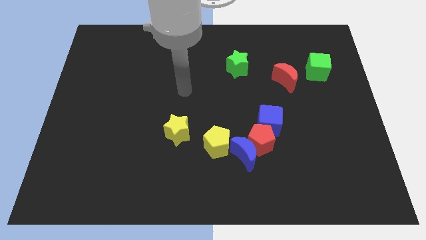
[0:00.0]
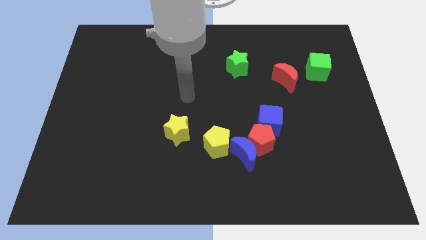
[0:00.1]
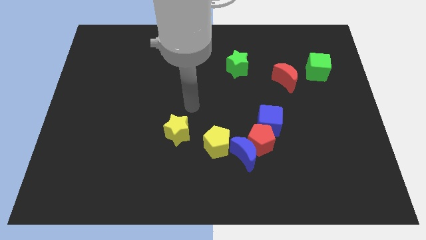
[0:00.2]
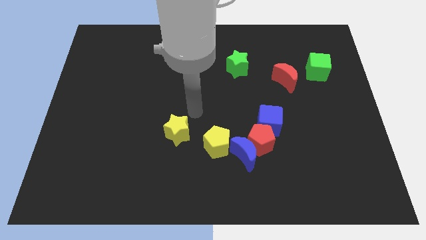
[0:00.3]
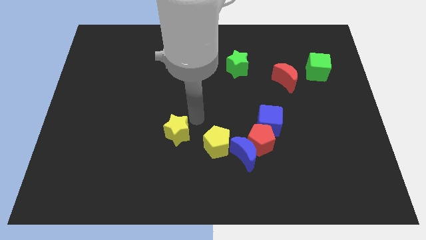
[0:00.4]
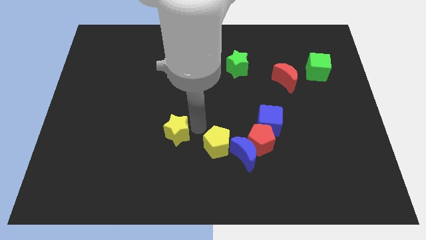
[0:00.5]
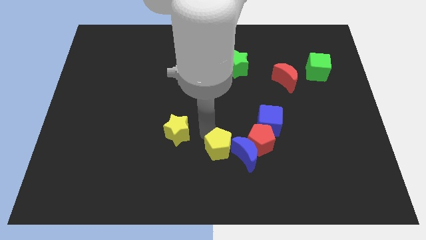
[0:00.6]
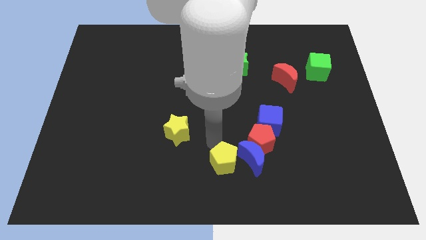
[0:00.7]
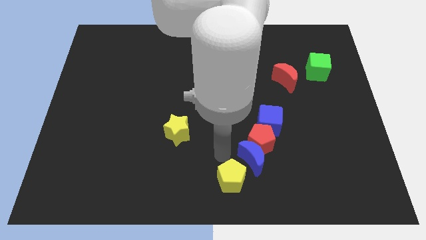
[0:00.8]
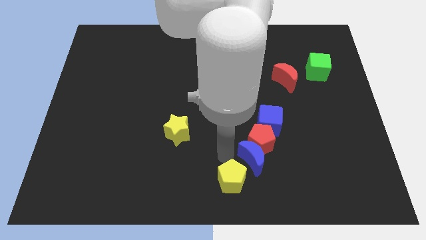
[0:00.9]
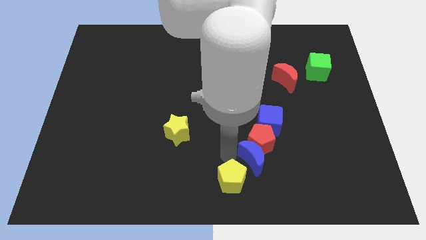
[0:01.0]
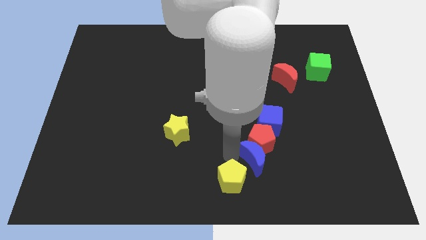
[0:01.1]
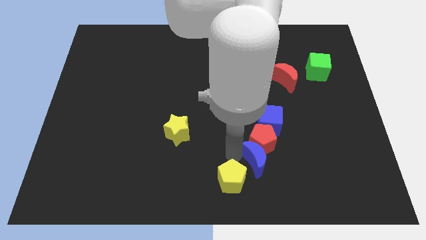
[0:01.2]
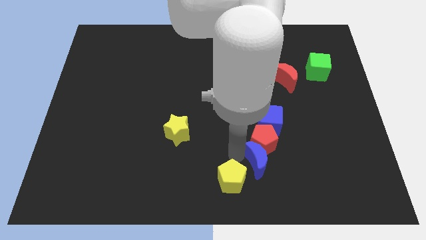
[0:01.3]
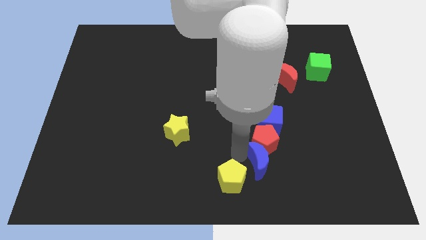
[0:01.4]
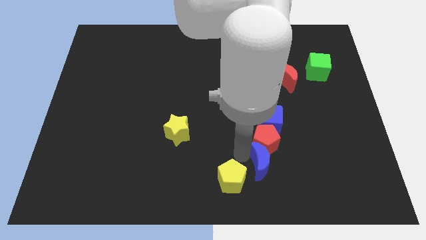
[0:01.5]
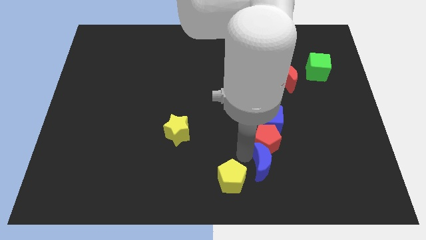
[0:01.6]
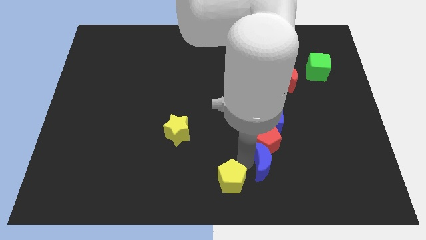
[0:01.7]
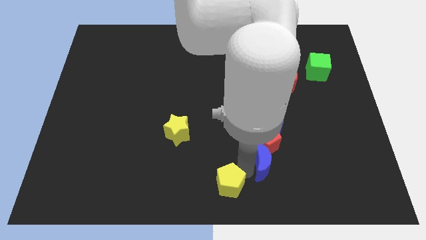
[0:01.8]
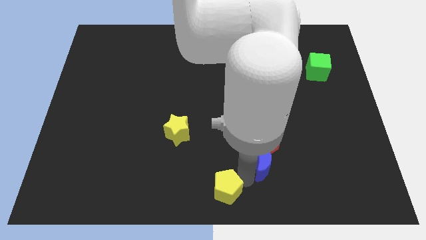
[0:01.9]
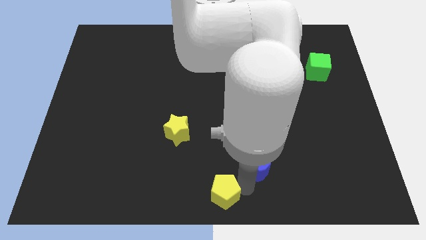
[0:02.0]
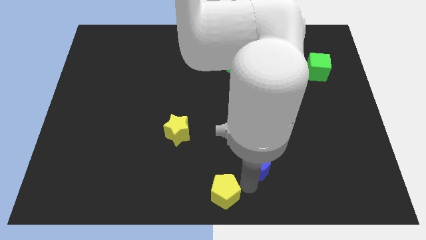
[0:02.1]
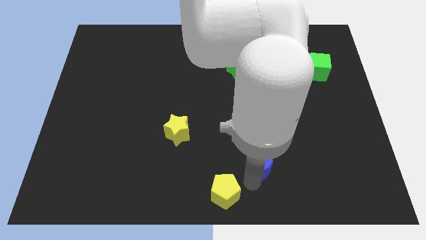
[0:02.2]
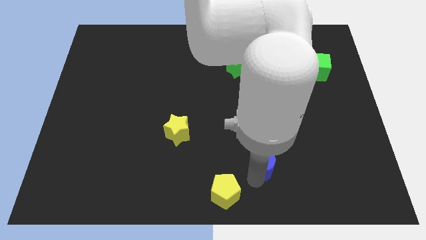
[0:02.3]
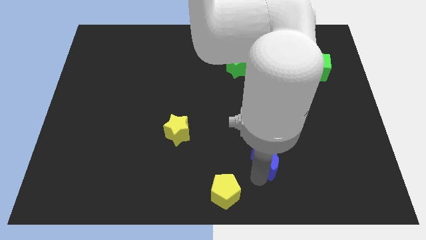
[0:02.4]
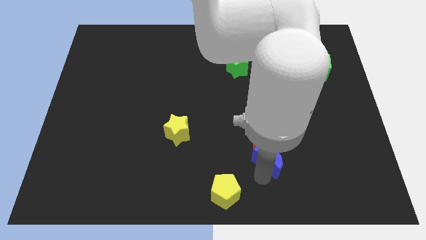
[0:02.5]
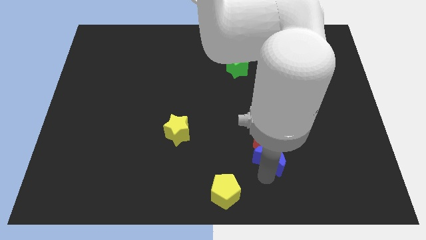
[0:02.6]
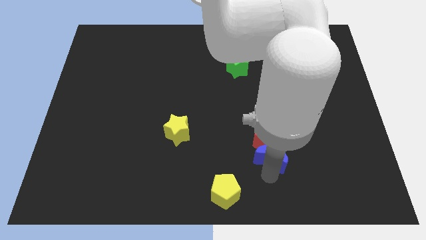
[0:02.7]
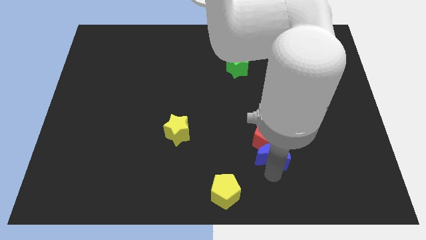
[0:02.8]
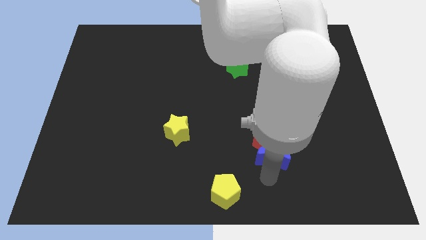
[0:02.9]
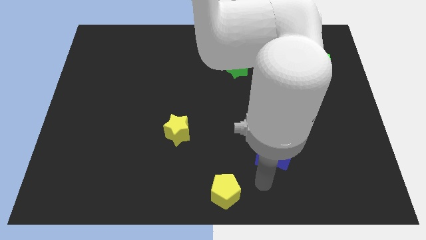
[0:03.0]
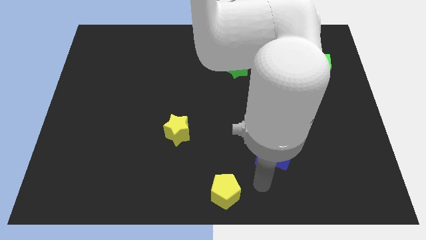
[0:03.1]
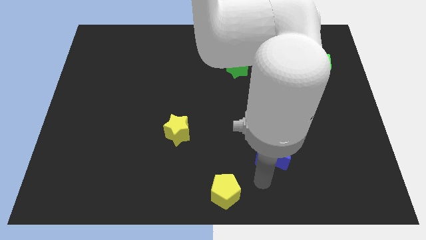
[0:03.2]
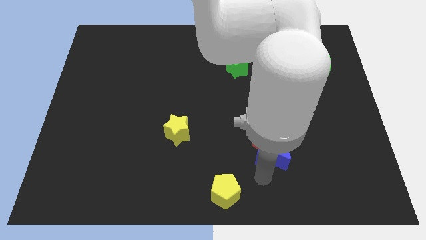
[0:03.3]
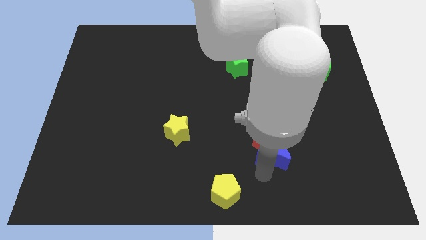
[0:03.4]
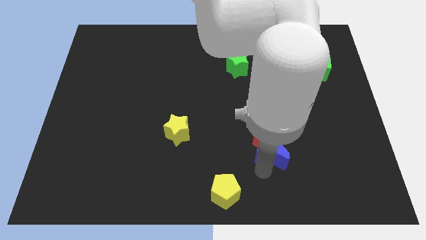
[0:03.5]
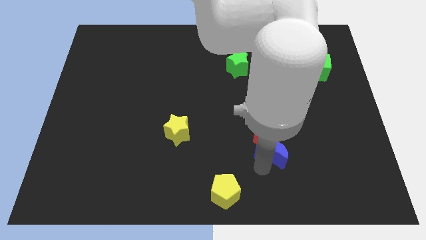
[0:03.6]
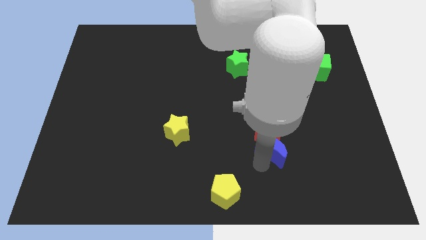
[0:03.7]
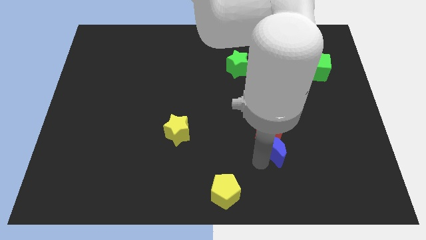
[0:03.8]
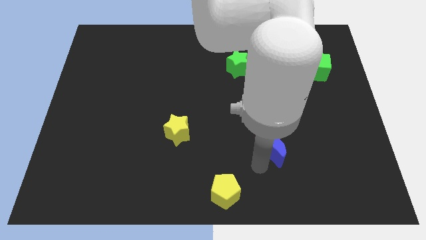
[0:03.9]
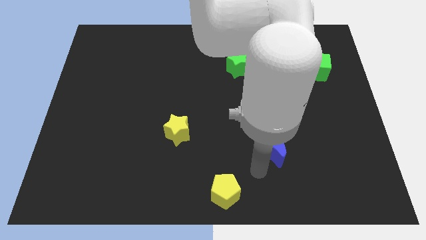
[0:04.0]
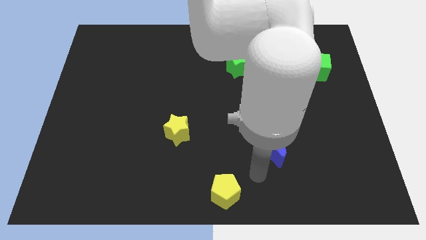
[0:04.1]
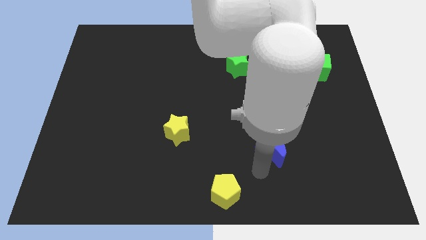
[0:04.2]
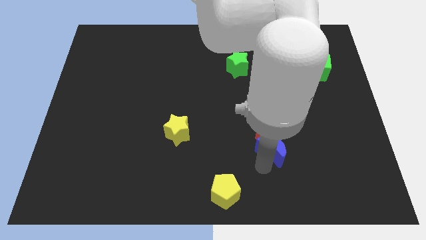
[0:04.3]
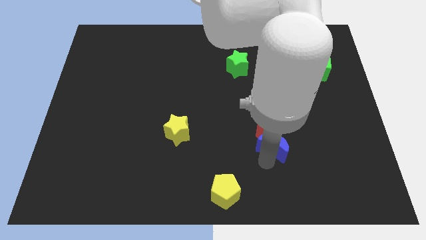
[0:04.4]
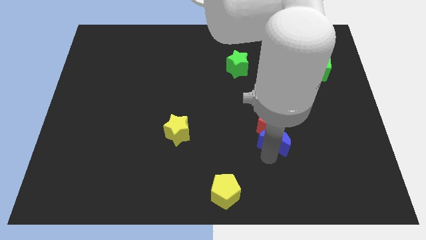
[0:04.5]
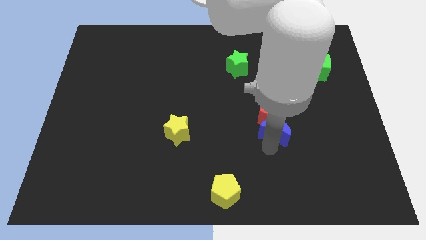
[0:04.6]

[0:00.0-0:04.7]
slightly slide the blue moon up and to the right diagonally

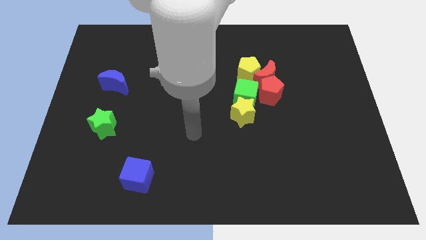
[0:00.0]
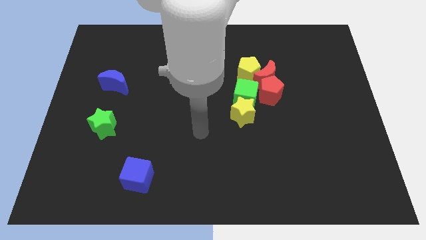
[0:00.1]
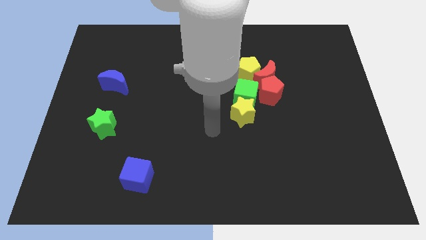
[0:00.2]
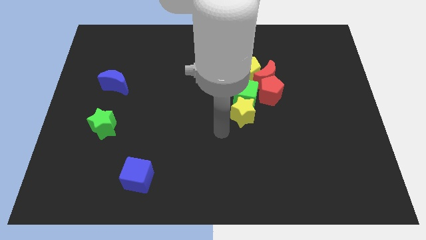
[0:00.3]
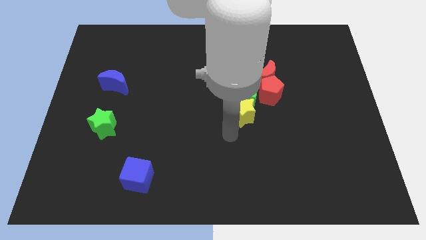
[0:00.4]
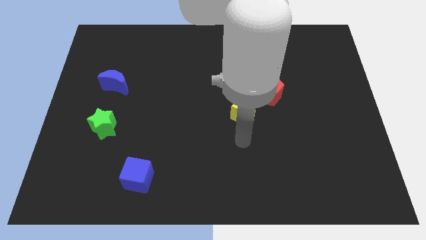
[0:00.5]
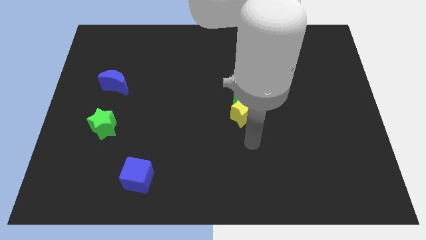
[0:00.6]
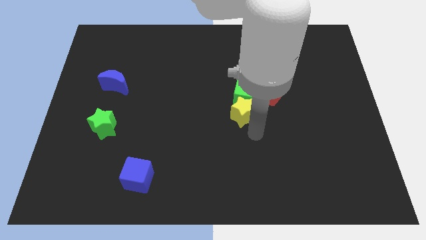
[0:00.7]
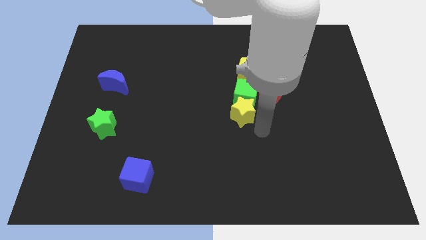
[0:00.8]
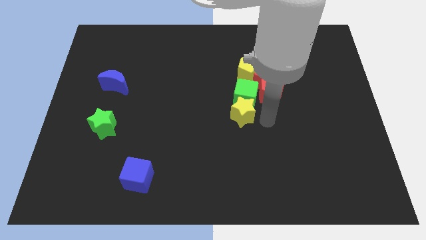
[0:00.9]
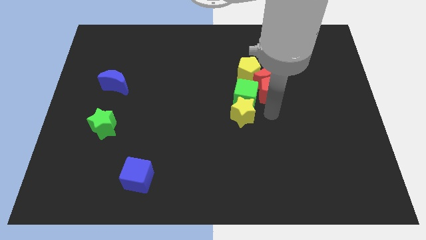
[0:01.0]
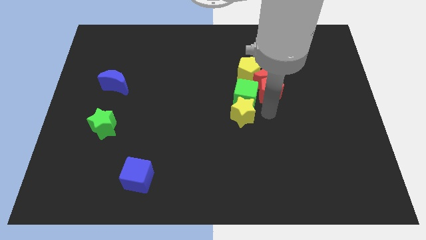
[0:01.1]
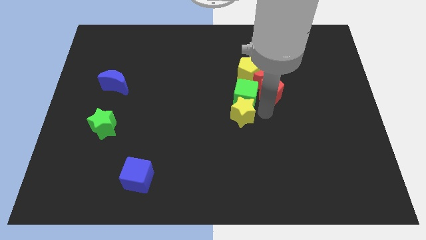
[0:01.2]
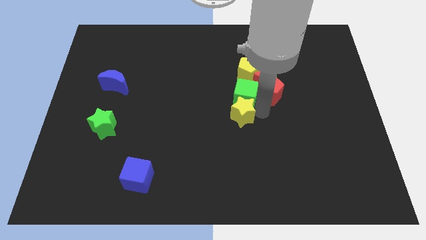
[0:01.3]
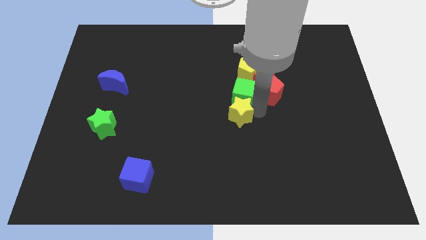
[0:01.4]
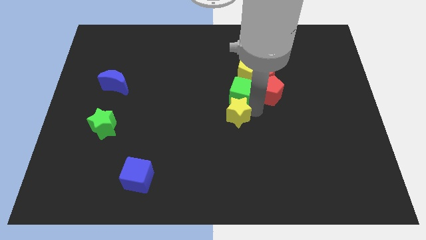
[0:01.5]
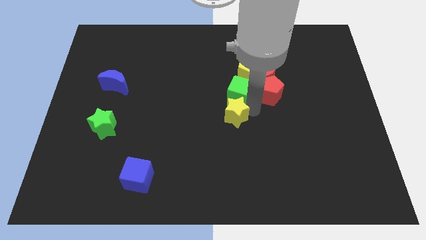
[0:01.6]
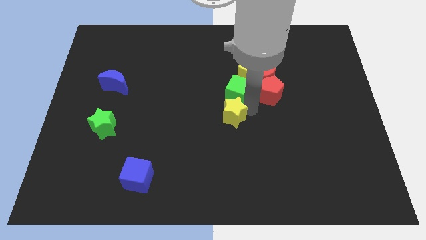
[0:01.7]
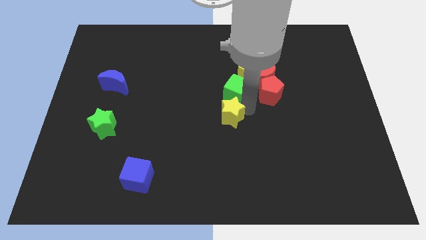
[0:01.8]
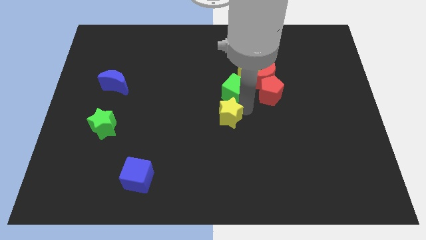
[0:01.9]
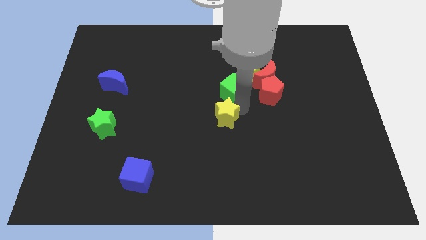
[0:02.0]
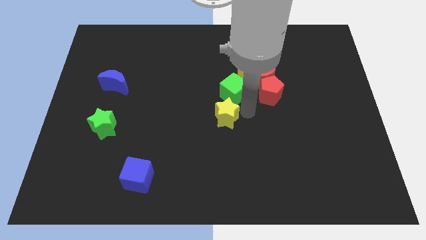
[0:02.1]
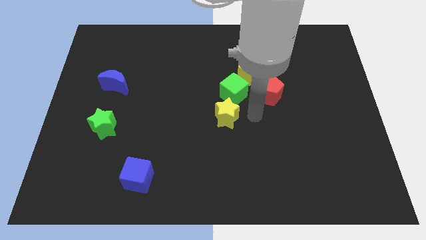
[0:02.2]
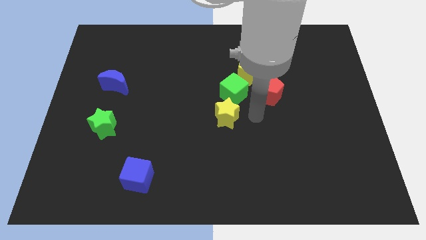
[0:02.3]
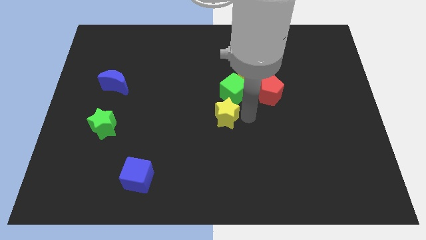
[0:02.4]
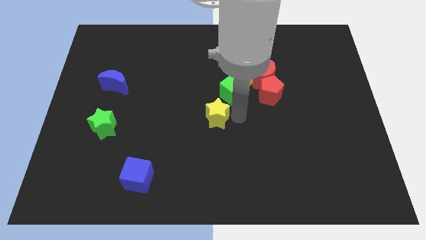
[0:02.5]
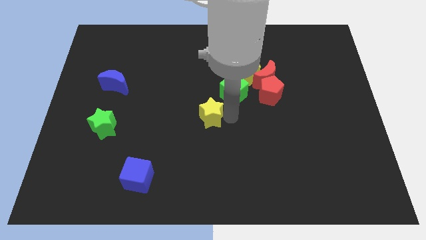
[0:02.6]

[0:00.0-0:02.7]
move the yellow star a little left

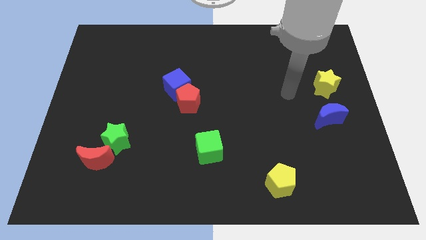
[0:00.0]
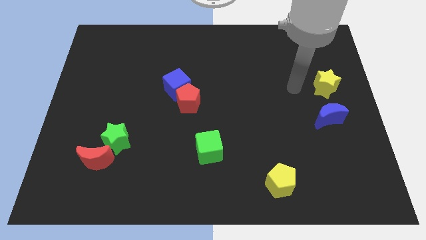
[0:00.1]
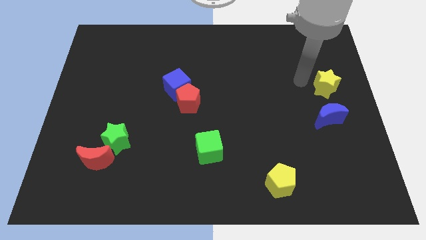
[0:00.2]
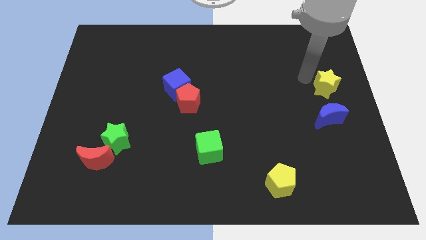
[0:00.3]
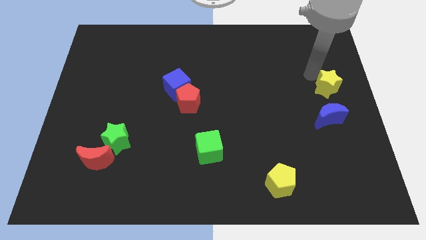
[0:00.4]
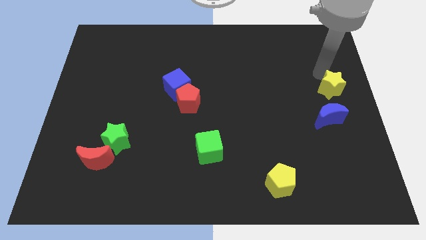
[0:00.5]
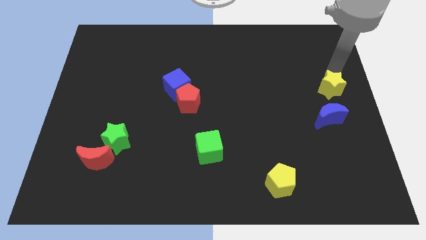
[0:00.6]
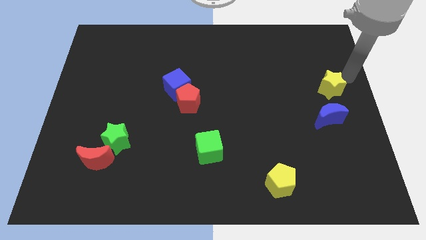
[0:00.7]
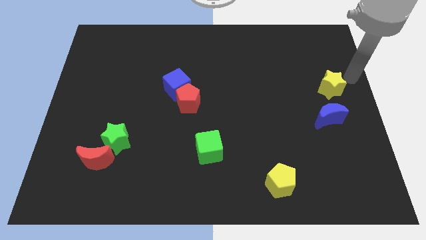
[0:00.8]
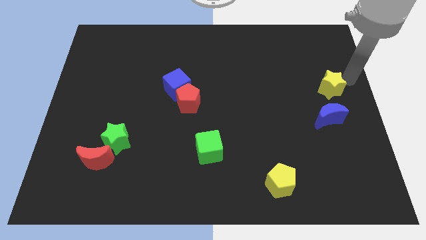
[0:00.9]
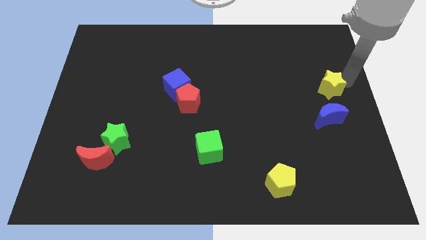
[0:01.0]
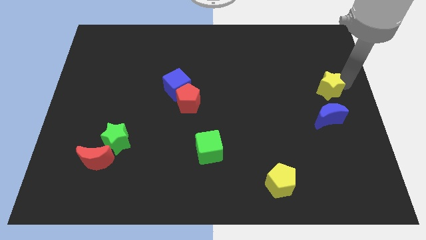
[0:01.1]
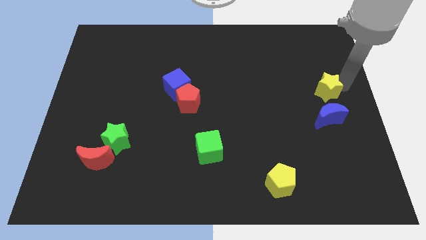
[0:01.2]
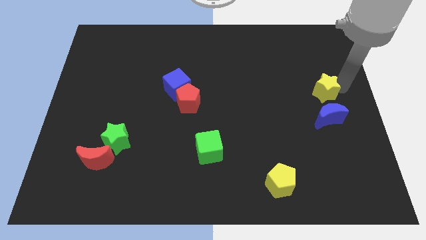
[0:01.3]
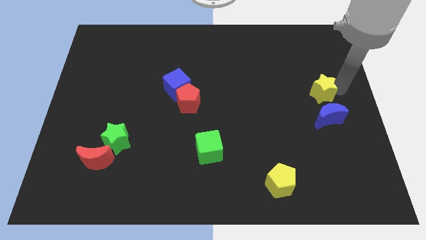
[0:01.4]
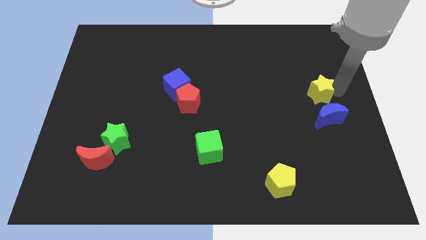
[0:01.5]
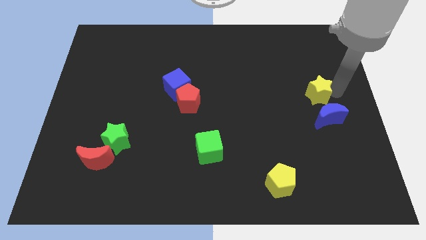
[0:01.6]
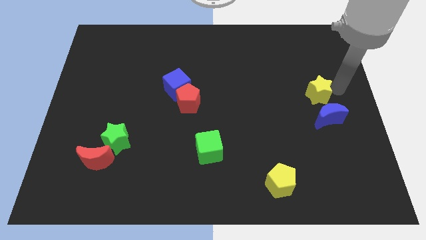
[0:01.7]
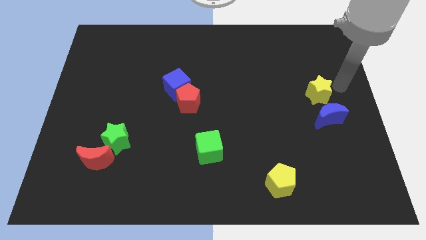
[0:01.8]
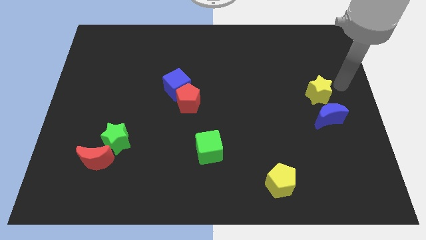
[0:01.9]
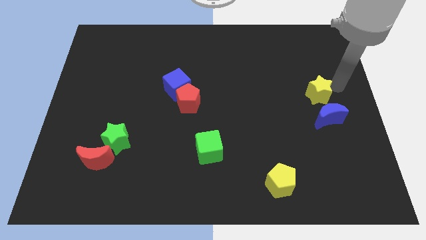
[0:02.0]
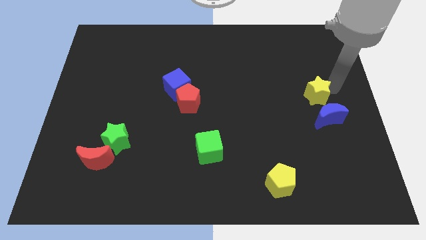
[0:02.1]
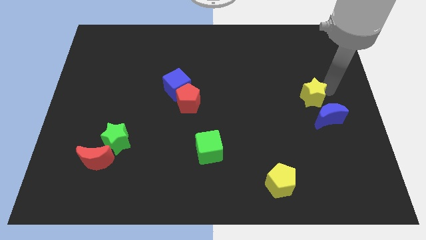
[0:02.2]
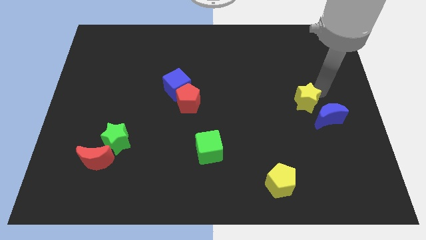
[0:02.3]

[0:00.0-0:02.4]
move the yellow star down and left somewhat
